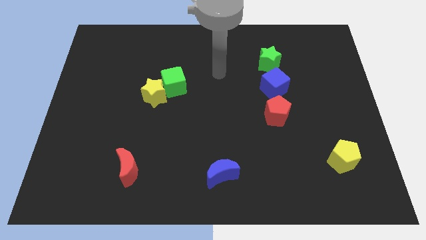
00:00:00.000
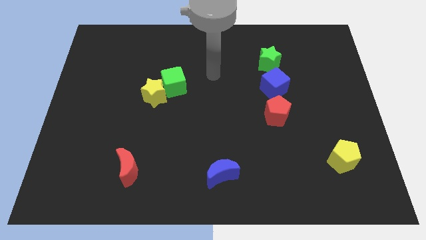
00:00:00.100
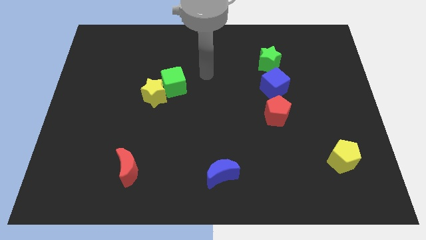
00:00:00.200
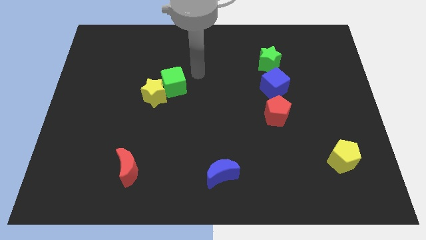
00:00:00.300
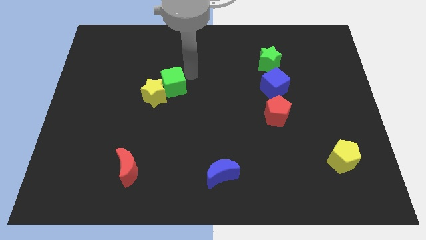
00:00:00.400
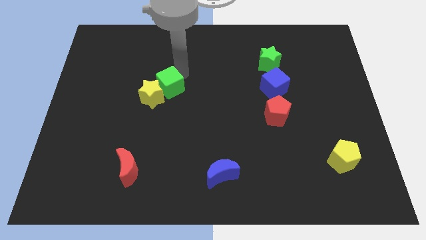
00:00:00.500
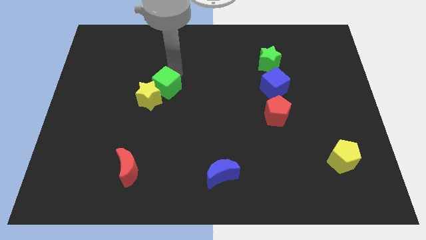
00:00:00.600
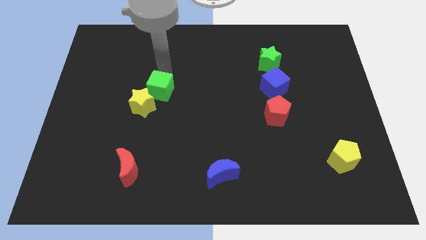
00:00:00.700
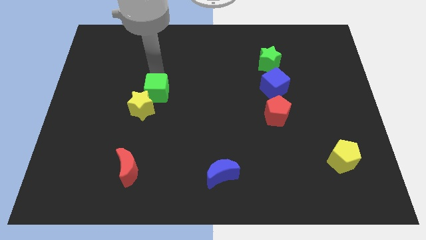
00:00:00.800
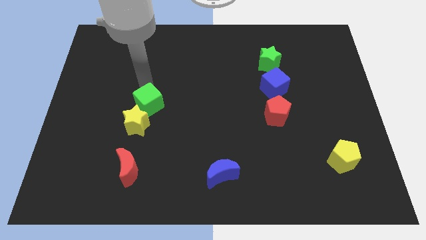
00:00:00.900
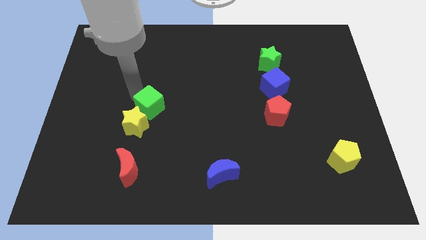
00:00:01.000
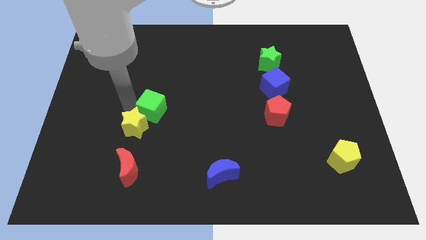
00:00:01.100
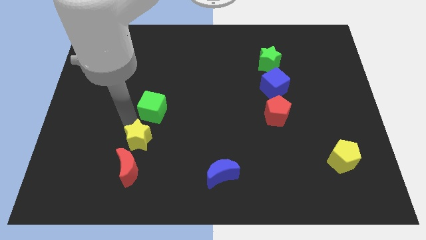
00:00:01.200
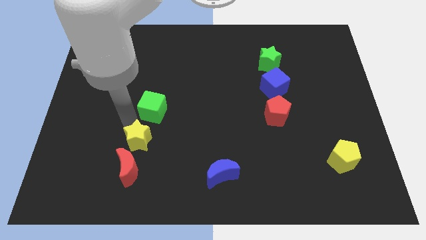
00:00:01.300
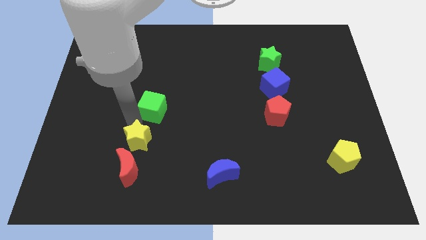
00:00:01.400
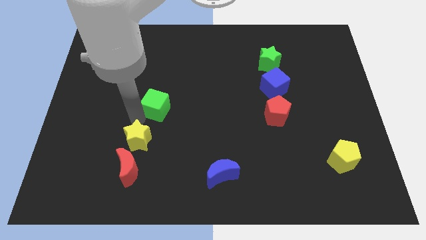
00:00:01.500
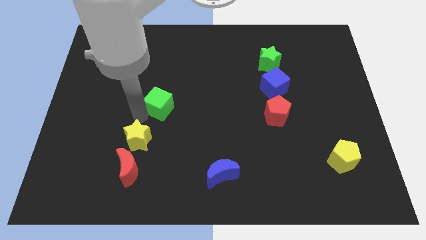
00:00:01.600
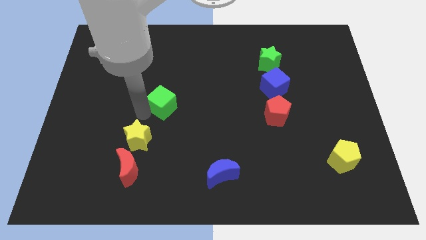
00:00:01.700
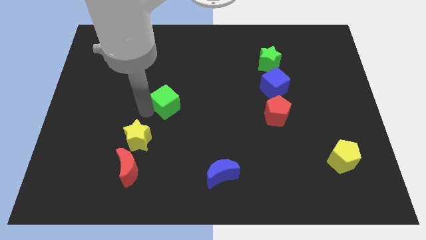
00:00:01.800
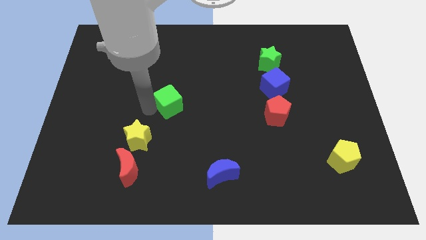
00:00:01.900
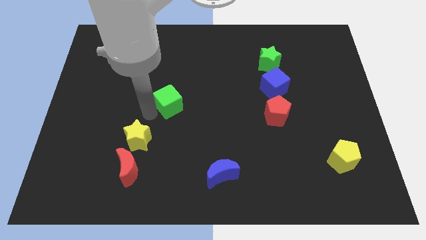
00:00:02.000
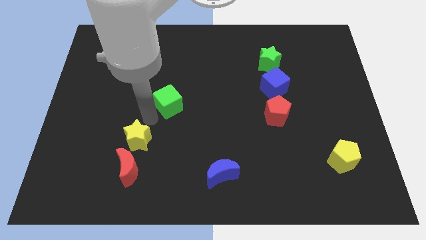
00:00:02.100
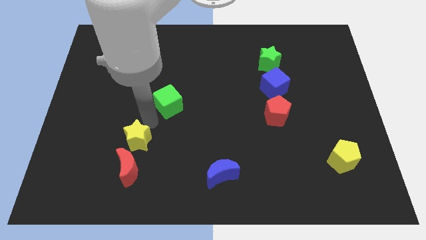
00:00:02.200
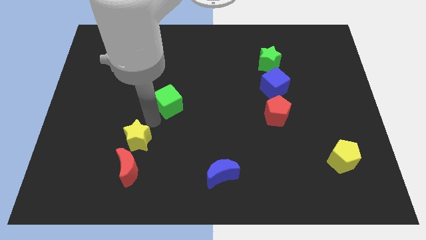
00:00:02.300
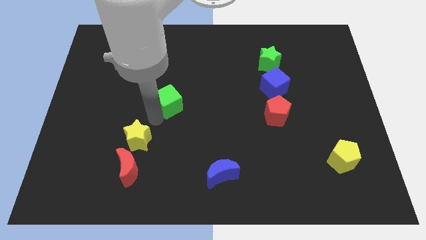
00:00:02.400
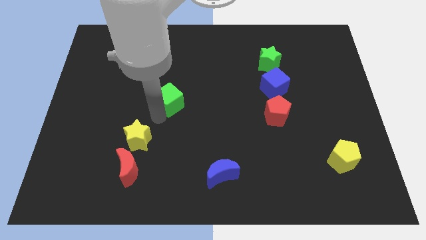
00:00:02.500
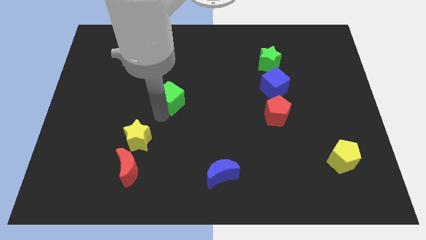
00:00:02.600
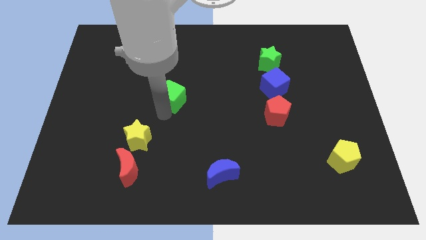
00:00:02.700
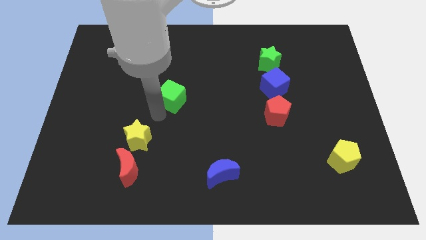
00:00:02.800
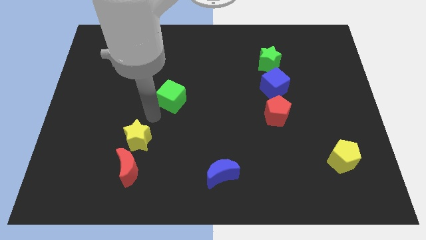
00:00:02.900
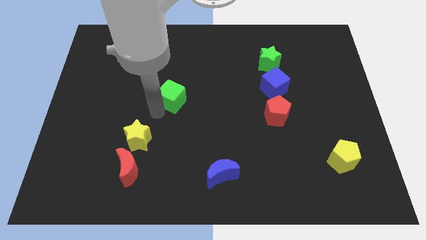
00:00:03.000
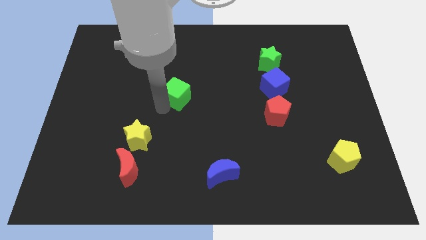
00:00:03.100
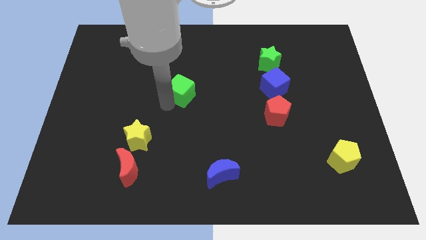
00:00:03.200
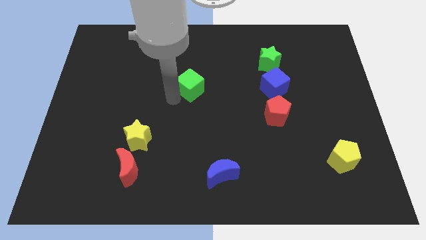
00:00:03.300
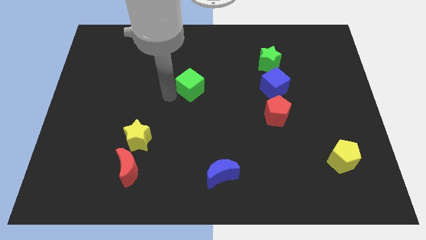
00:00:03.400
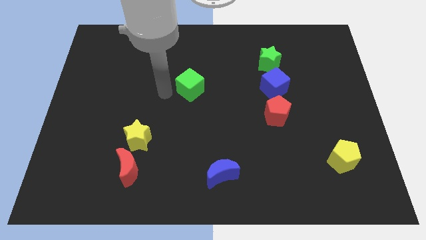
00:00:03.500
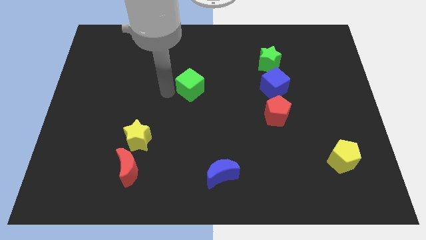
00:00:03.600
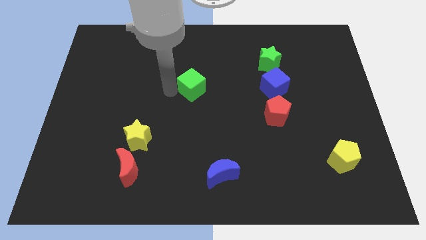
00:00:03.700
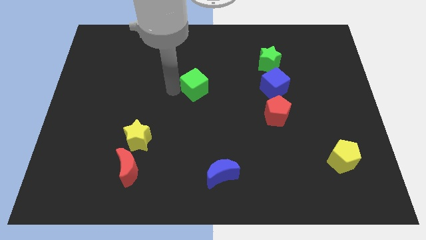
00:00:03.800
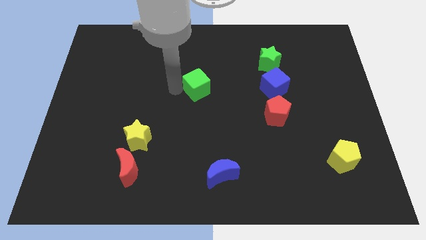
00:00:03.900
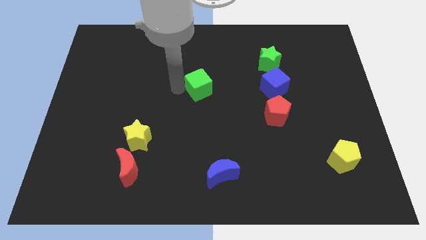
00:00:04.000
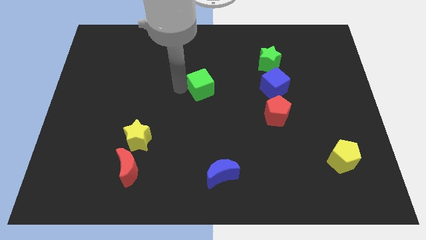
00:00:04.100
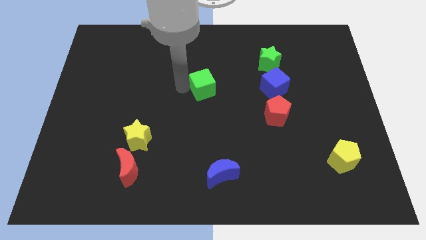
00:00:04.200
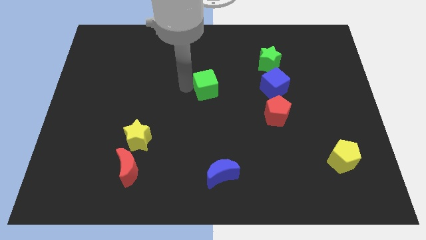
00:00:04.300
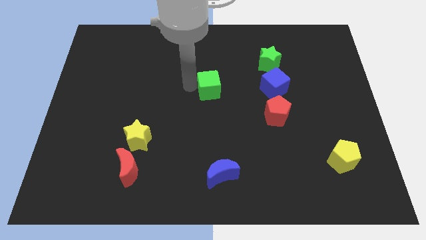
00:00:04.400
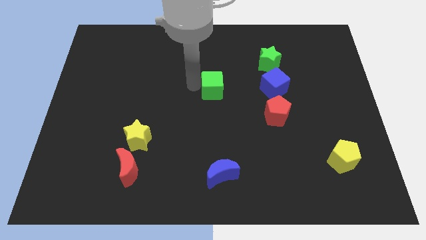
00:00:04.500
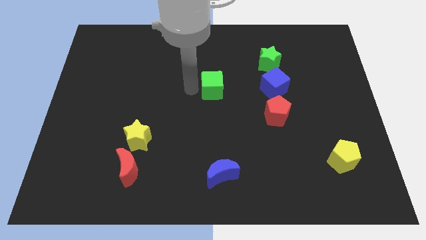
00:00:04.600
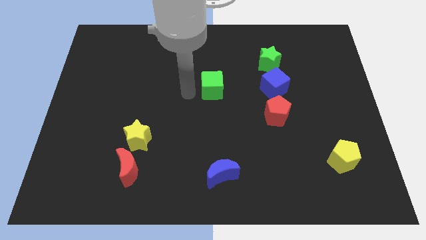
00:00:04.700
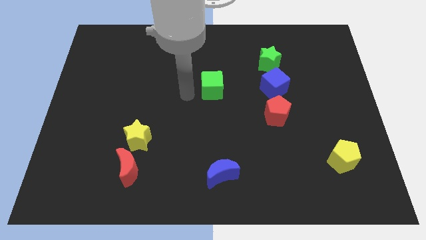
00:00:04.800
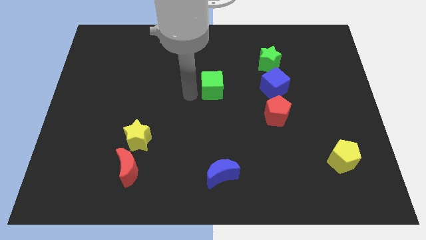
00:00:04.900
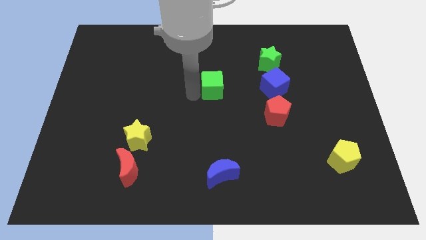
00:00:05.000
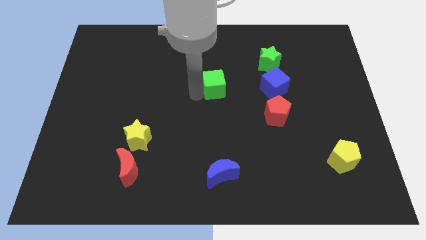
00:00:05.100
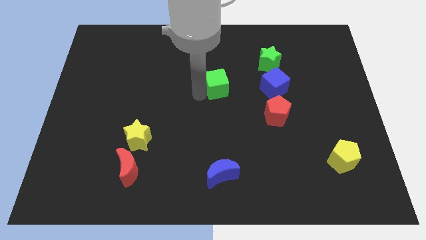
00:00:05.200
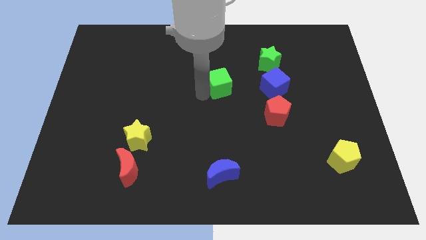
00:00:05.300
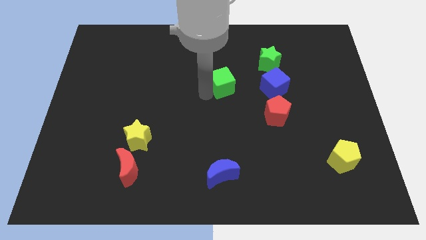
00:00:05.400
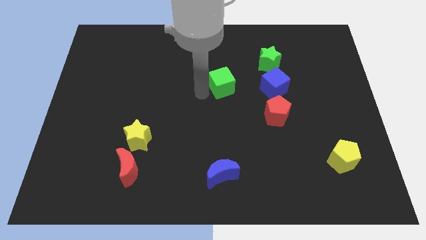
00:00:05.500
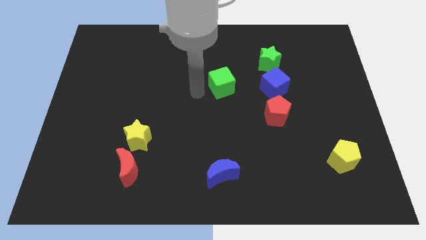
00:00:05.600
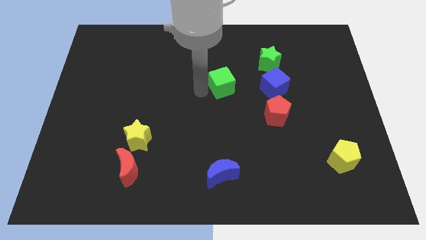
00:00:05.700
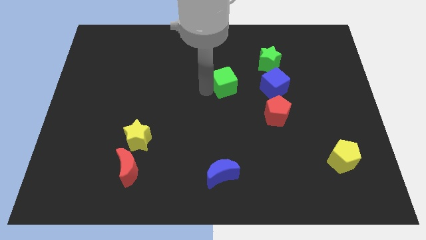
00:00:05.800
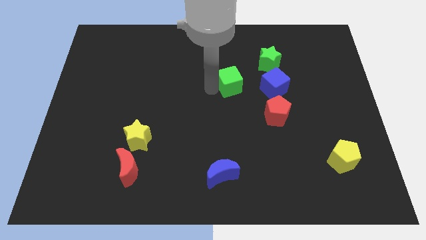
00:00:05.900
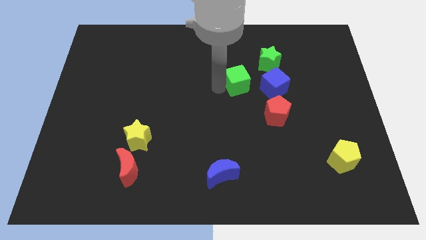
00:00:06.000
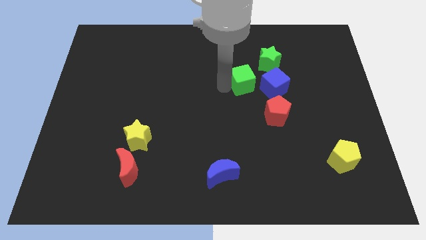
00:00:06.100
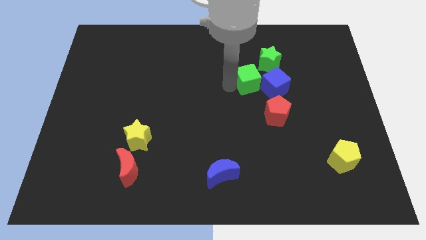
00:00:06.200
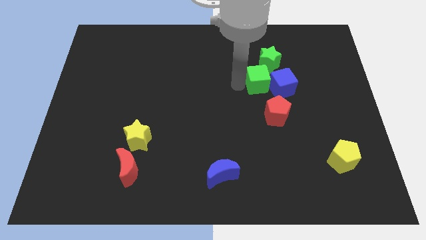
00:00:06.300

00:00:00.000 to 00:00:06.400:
push the green cube to the right

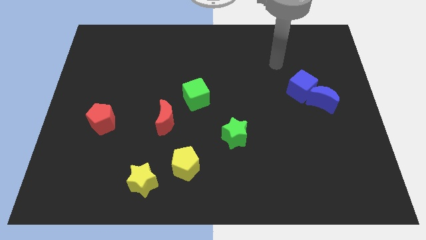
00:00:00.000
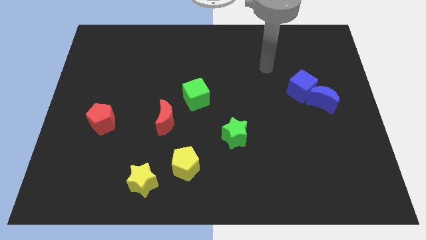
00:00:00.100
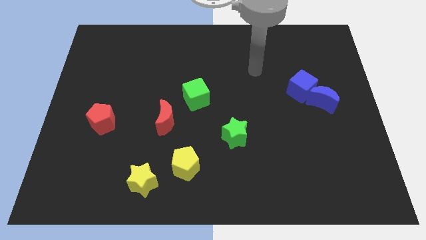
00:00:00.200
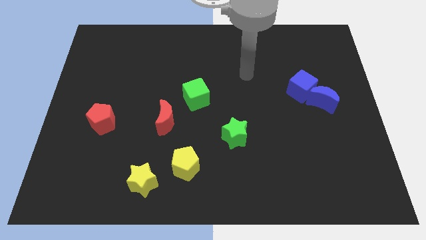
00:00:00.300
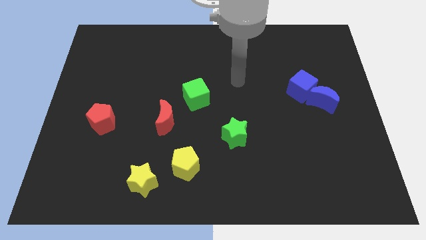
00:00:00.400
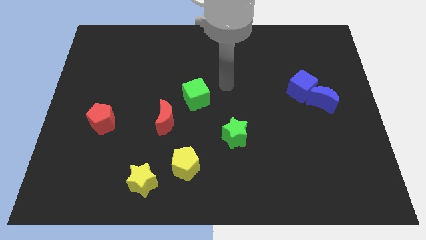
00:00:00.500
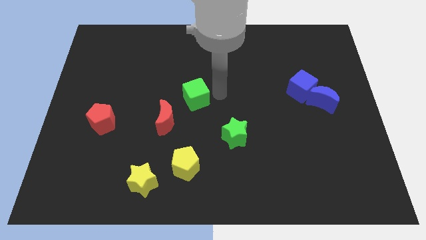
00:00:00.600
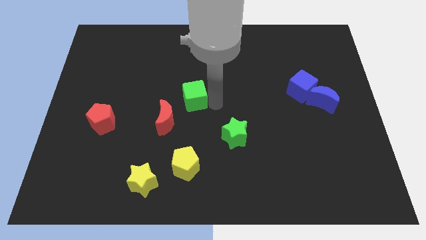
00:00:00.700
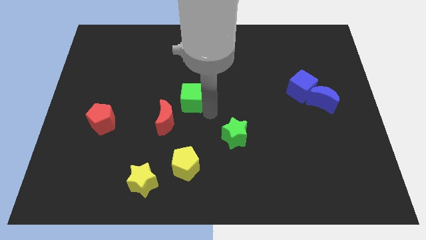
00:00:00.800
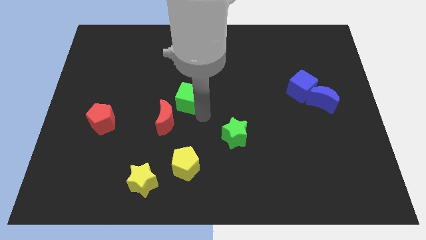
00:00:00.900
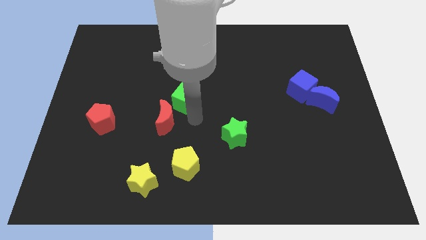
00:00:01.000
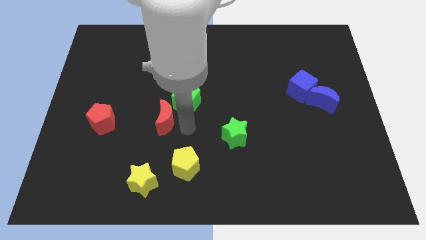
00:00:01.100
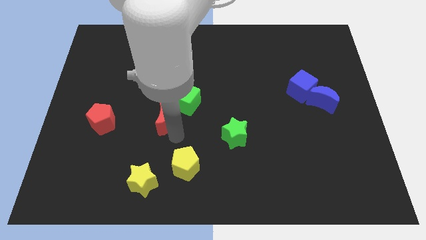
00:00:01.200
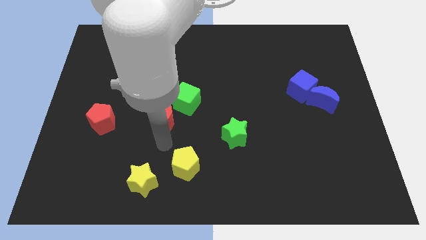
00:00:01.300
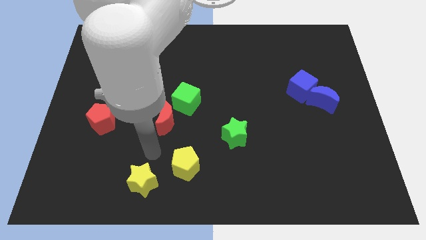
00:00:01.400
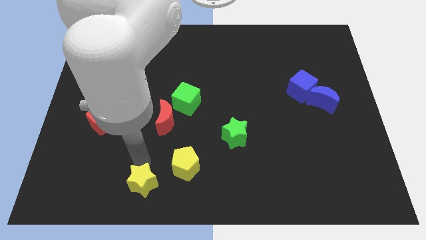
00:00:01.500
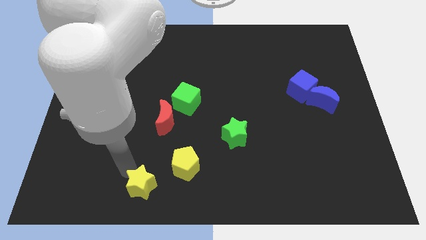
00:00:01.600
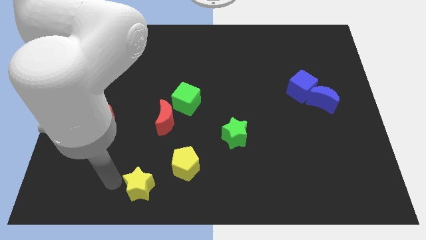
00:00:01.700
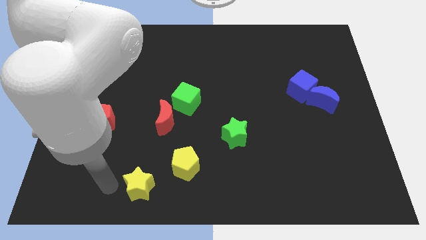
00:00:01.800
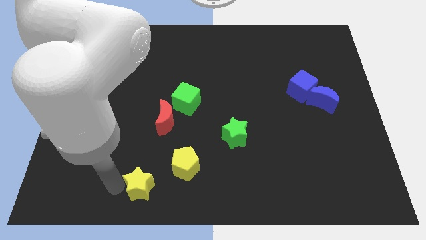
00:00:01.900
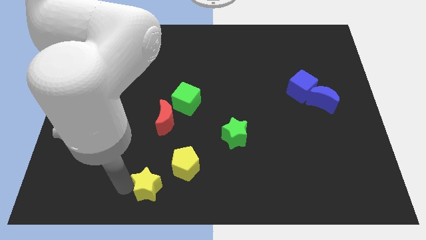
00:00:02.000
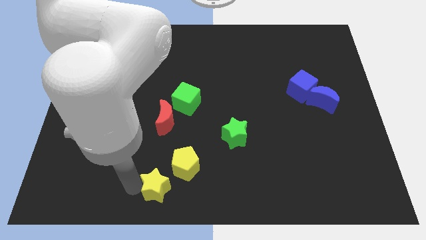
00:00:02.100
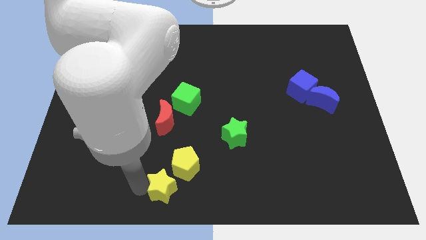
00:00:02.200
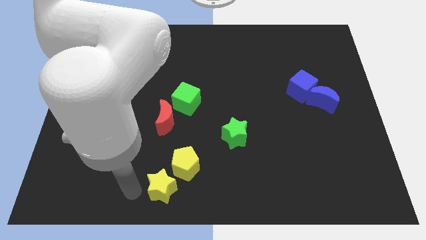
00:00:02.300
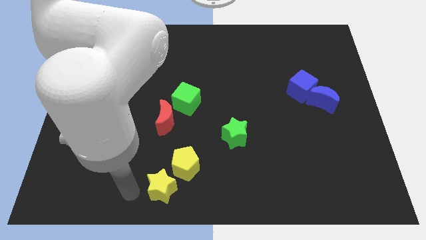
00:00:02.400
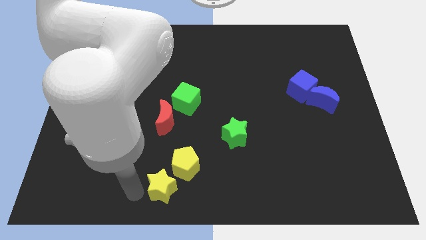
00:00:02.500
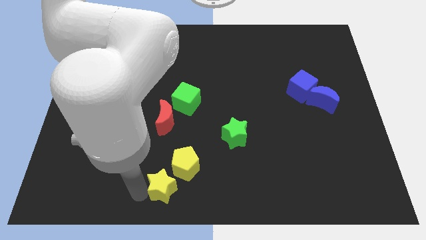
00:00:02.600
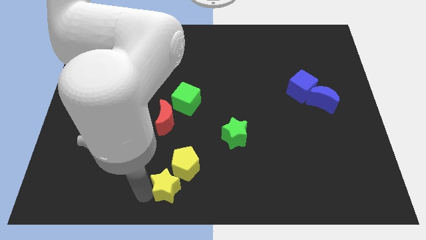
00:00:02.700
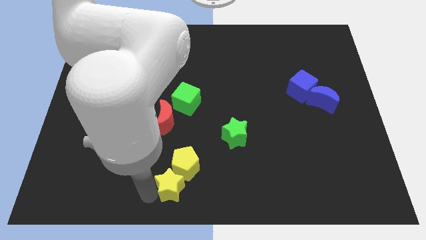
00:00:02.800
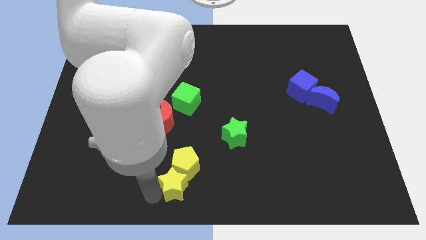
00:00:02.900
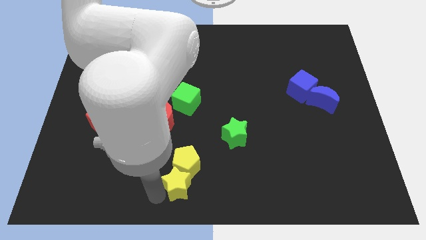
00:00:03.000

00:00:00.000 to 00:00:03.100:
push the yellow star somewhat right
